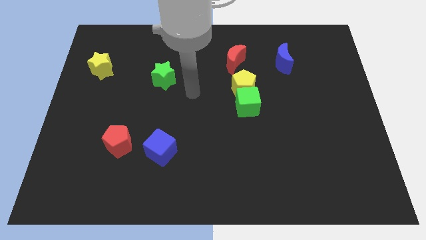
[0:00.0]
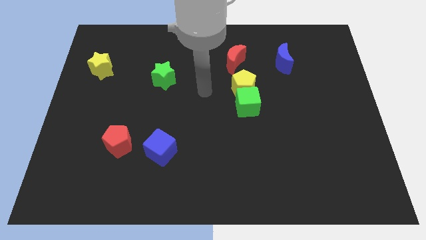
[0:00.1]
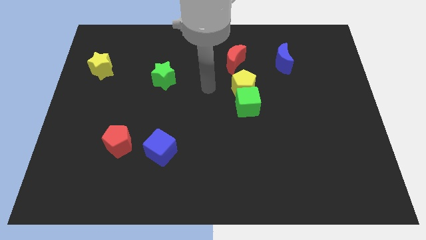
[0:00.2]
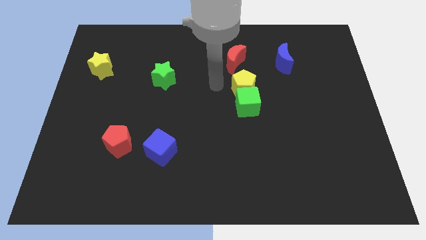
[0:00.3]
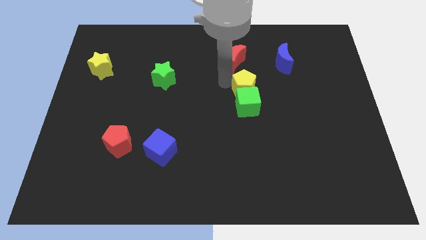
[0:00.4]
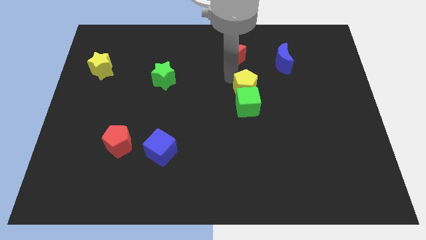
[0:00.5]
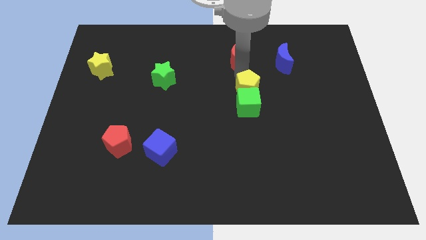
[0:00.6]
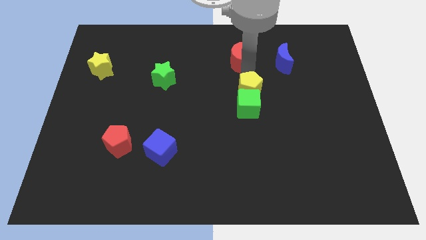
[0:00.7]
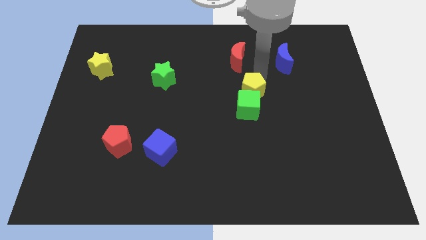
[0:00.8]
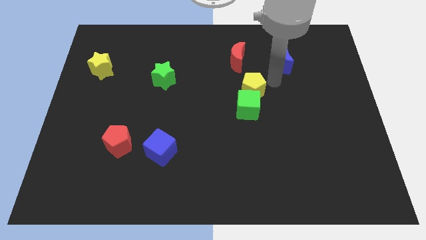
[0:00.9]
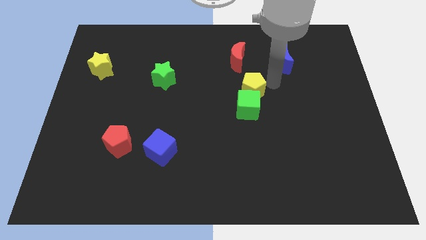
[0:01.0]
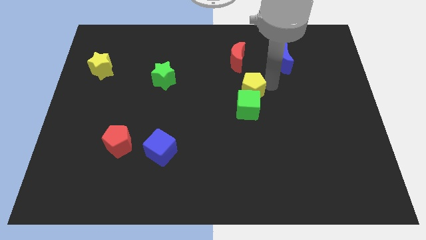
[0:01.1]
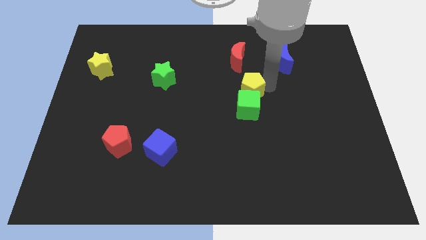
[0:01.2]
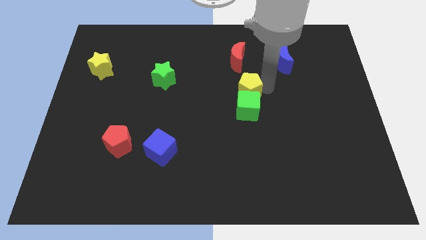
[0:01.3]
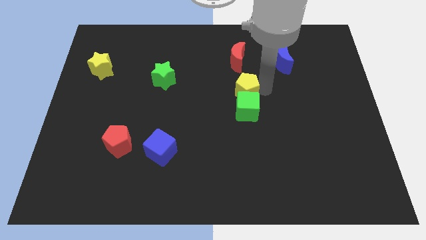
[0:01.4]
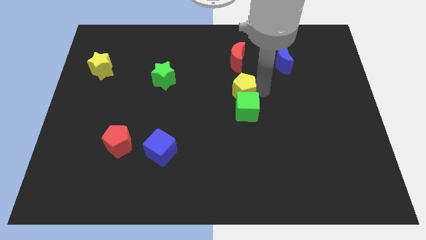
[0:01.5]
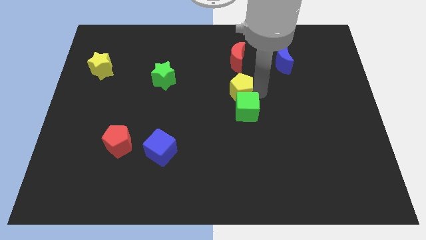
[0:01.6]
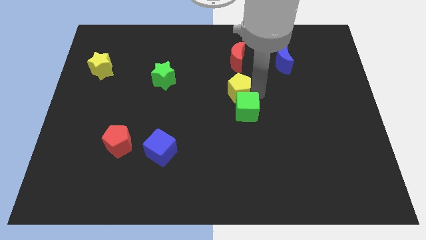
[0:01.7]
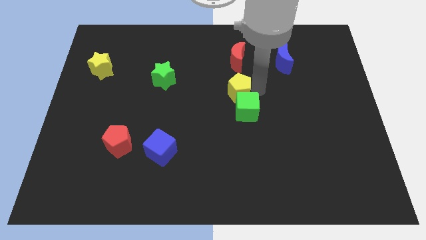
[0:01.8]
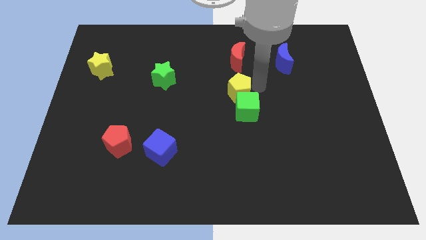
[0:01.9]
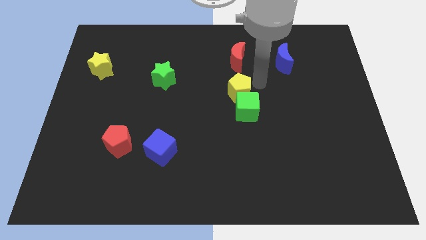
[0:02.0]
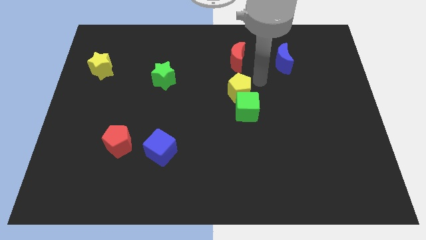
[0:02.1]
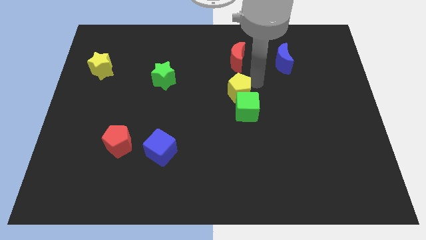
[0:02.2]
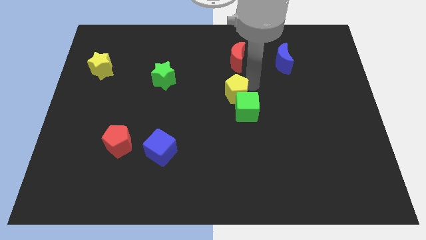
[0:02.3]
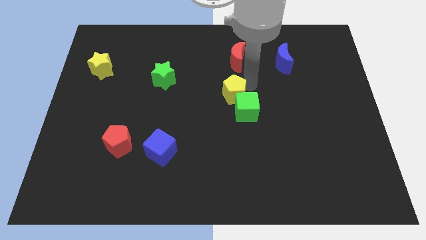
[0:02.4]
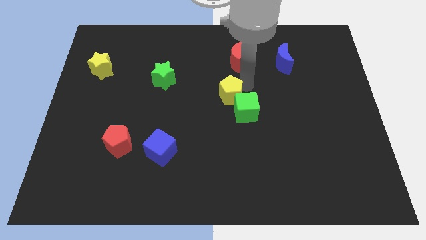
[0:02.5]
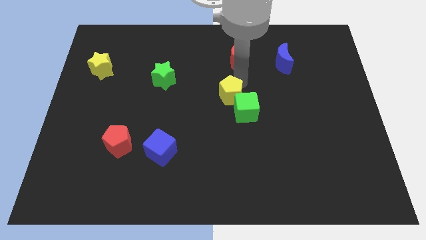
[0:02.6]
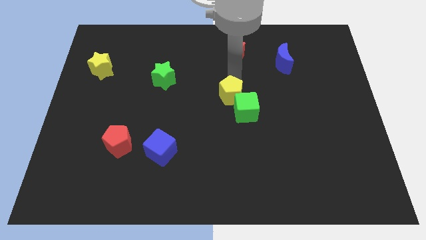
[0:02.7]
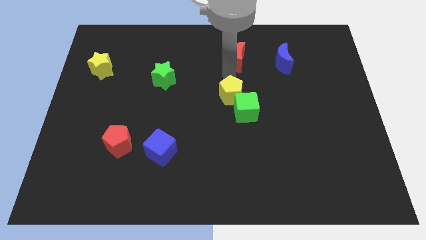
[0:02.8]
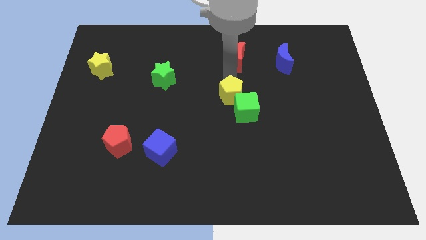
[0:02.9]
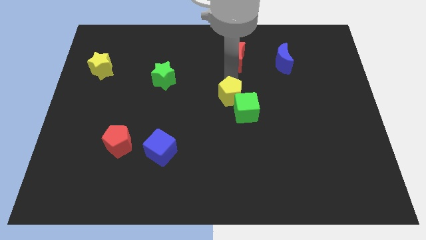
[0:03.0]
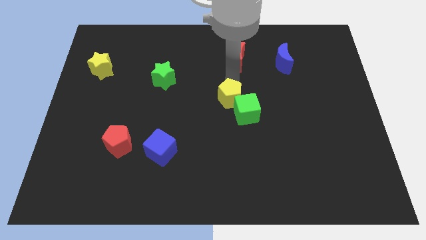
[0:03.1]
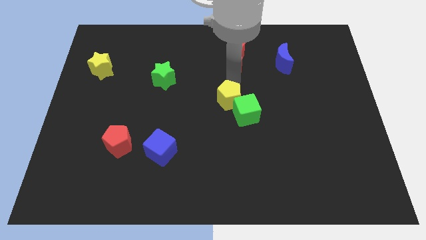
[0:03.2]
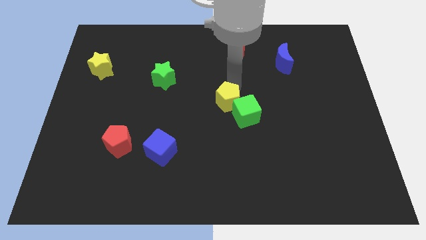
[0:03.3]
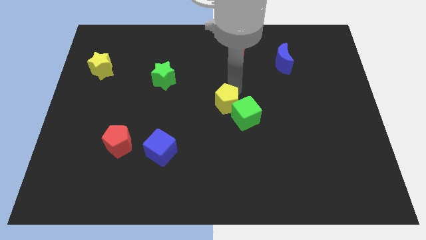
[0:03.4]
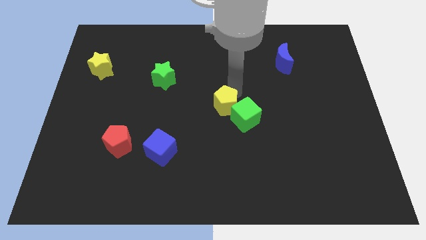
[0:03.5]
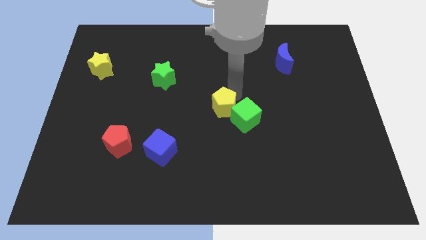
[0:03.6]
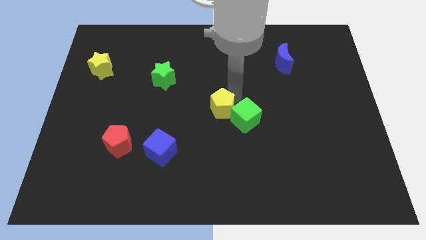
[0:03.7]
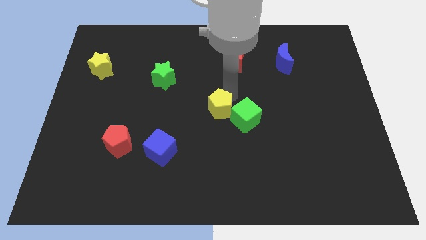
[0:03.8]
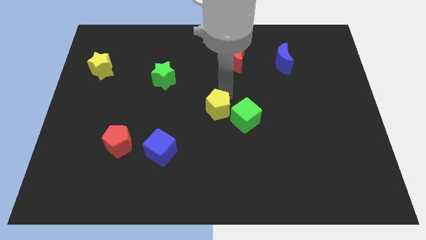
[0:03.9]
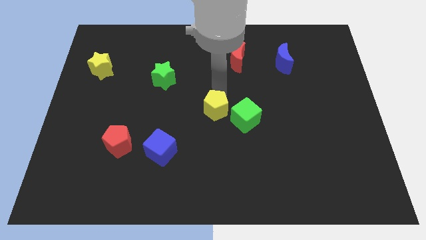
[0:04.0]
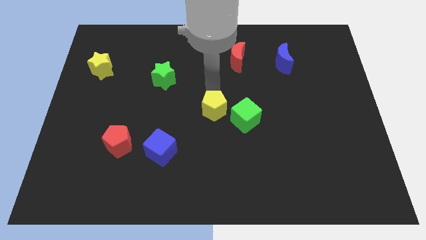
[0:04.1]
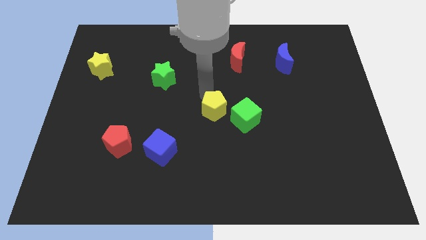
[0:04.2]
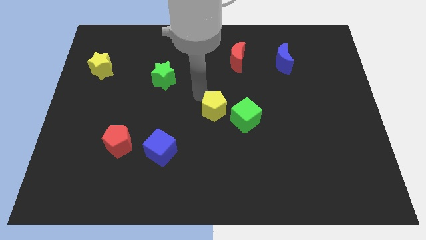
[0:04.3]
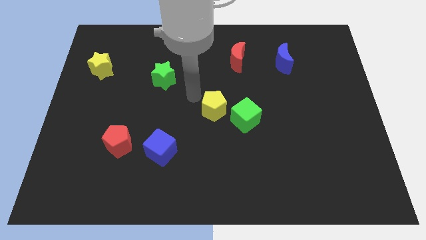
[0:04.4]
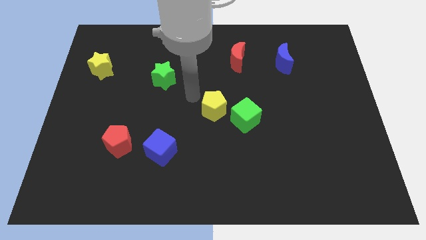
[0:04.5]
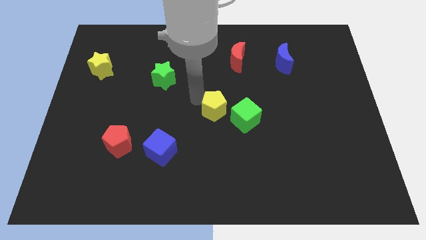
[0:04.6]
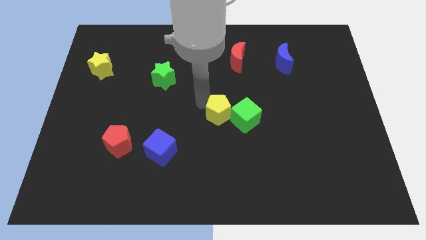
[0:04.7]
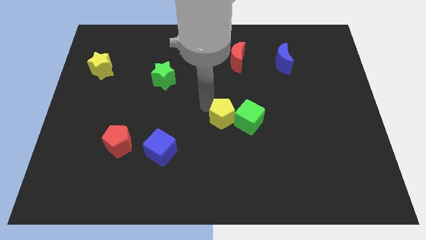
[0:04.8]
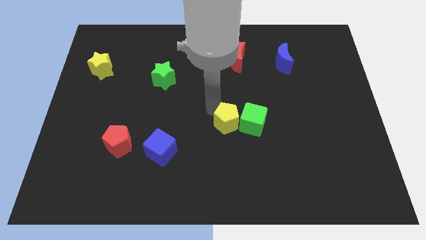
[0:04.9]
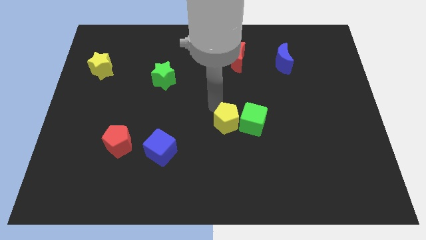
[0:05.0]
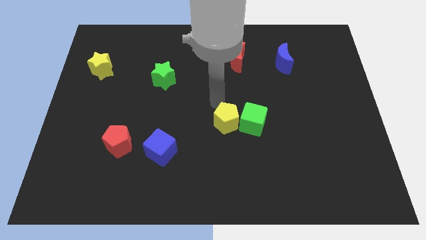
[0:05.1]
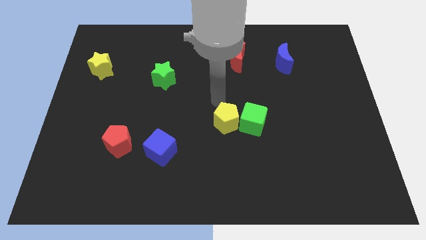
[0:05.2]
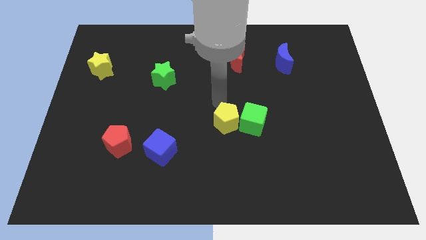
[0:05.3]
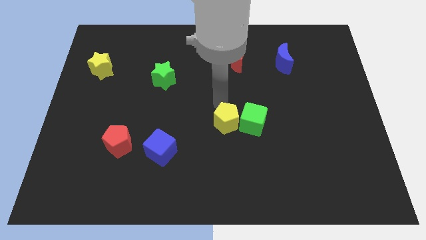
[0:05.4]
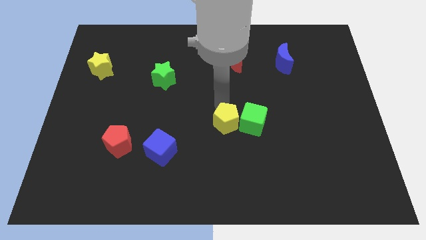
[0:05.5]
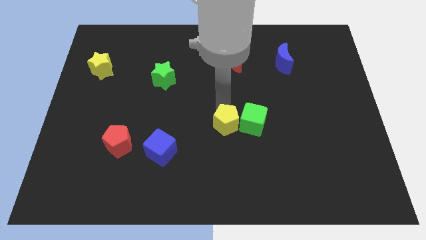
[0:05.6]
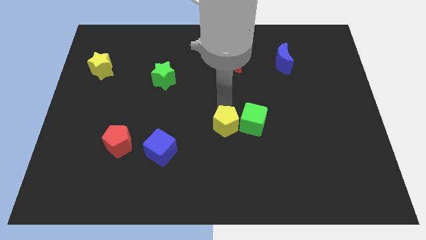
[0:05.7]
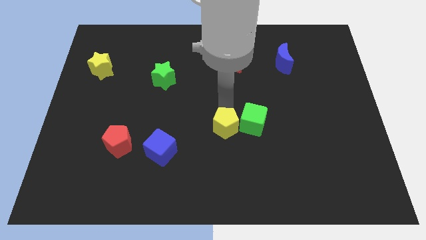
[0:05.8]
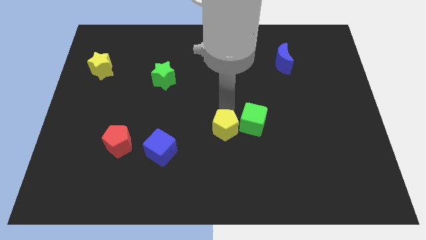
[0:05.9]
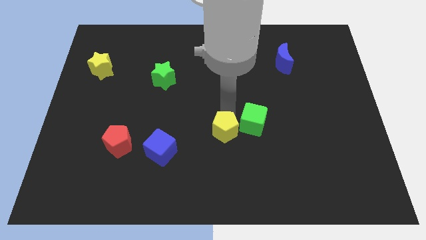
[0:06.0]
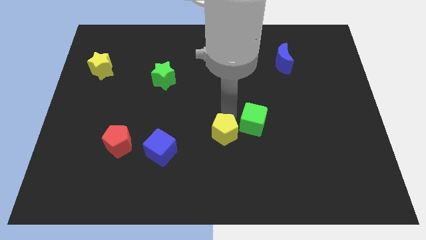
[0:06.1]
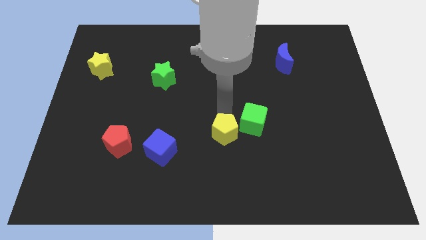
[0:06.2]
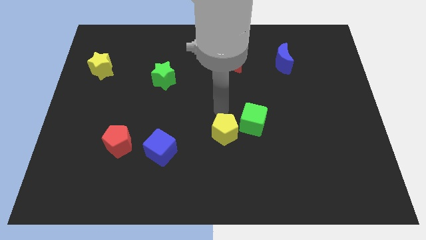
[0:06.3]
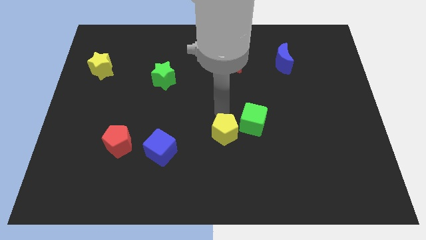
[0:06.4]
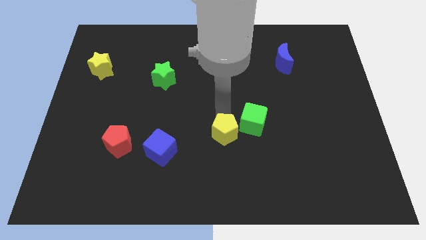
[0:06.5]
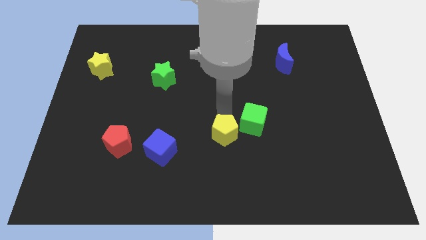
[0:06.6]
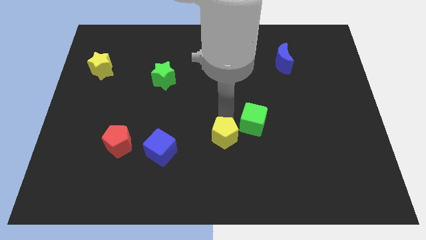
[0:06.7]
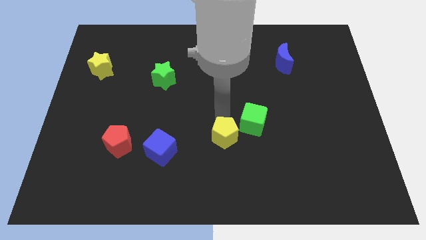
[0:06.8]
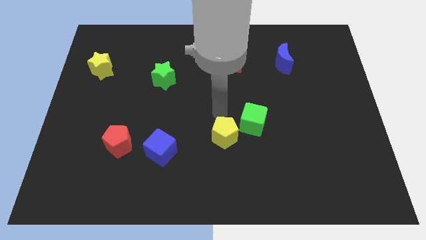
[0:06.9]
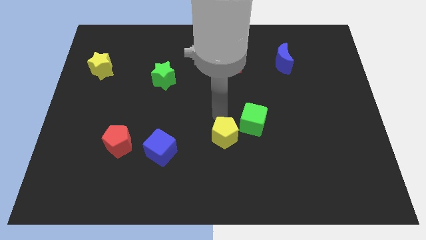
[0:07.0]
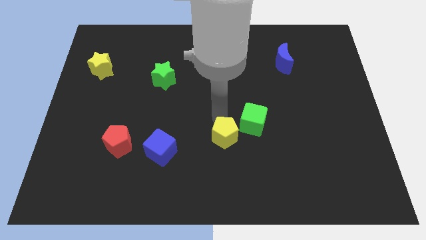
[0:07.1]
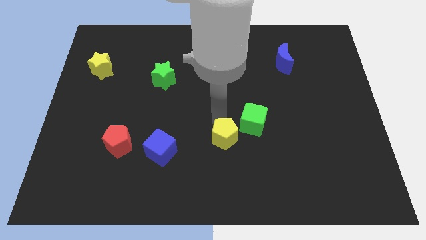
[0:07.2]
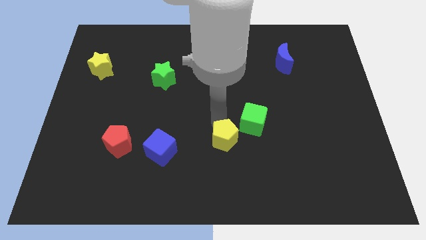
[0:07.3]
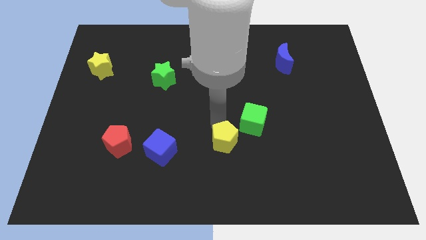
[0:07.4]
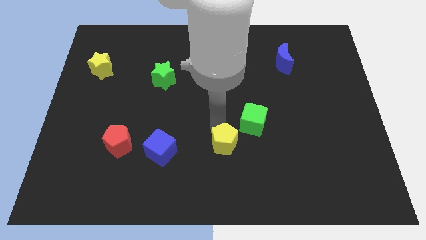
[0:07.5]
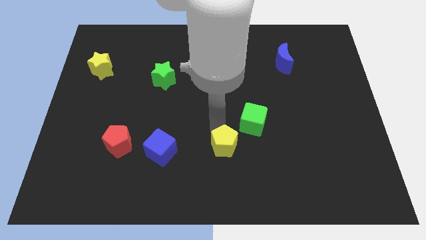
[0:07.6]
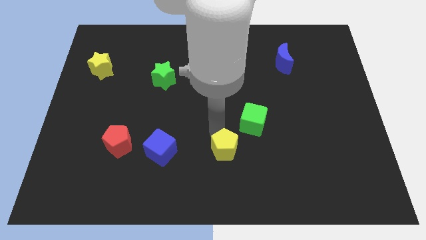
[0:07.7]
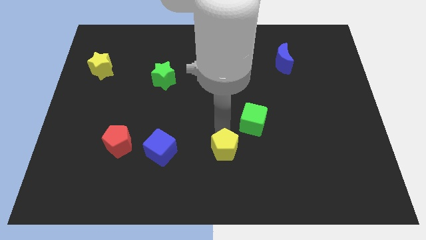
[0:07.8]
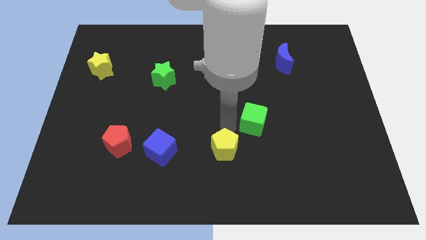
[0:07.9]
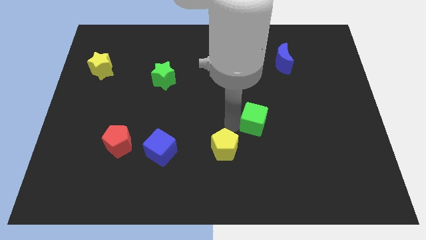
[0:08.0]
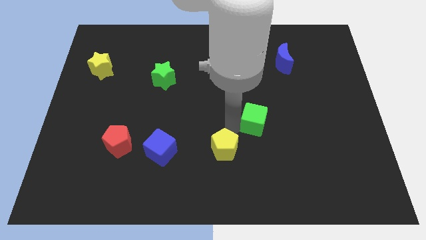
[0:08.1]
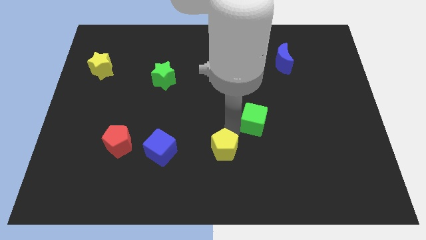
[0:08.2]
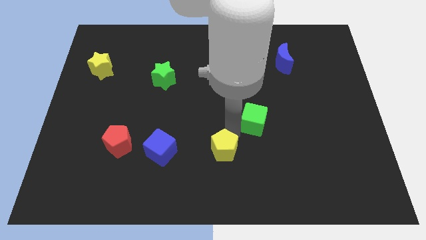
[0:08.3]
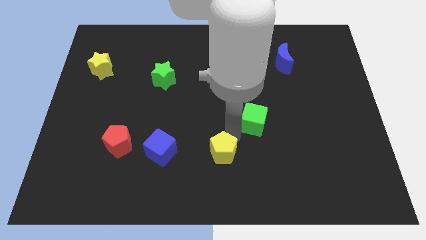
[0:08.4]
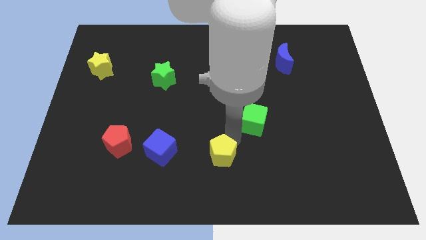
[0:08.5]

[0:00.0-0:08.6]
put the yellow pentagon to the bottom
